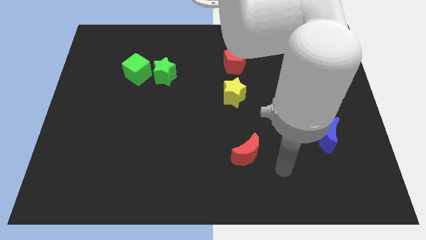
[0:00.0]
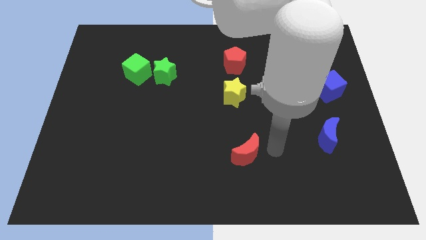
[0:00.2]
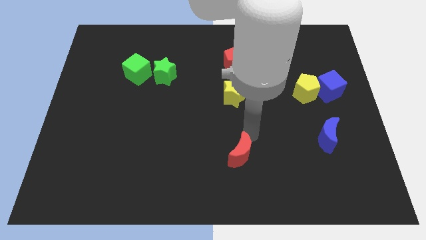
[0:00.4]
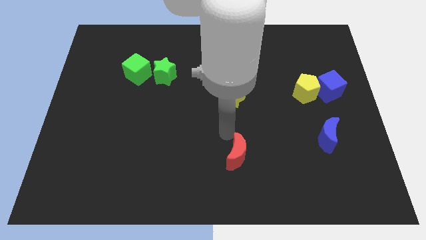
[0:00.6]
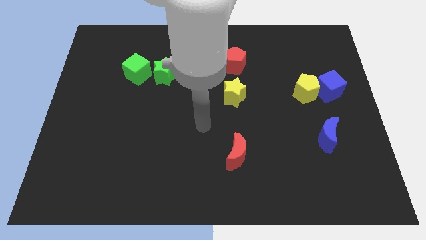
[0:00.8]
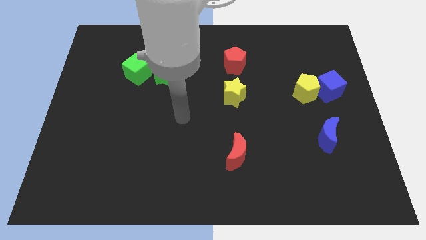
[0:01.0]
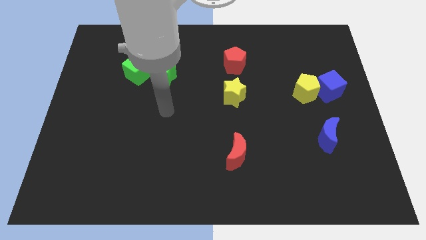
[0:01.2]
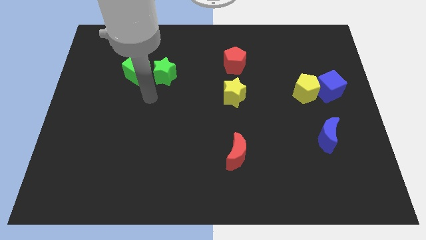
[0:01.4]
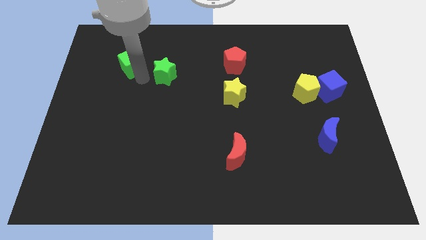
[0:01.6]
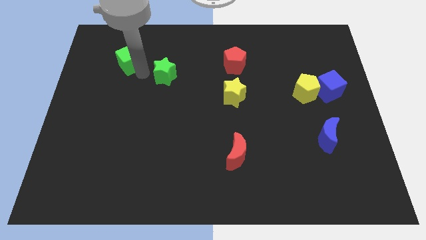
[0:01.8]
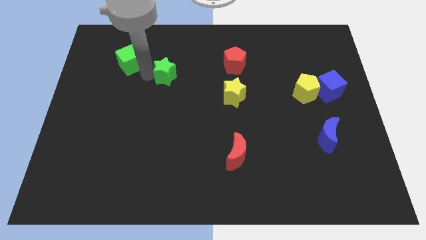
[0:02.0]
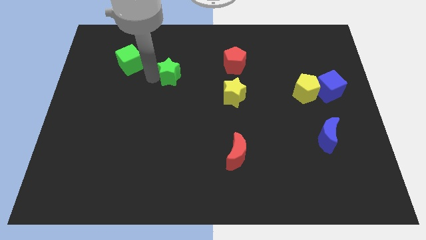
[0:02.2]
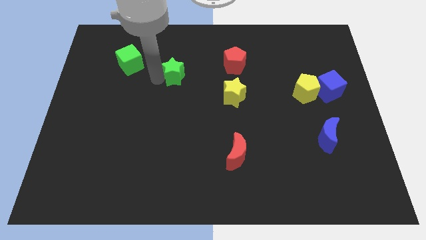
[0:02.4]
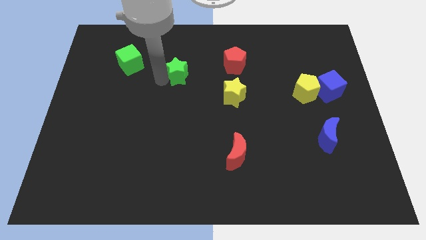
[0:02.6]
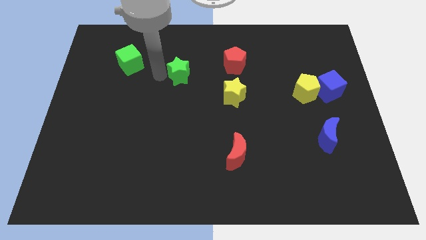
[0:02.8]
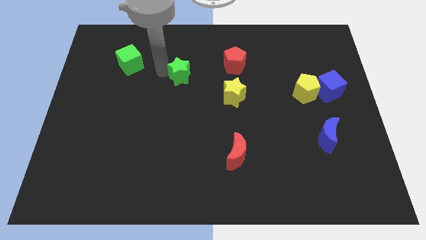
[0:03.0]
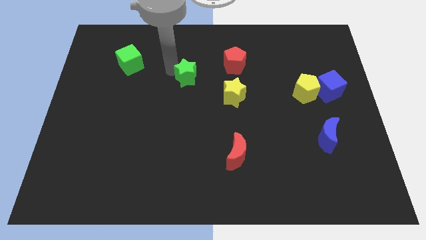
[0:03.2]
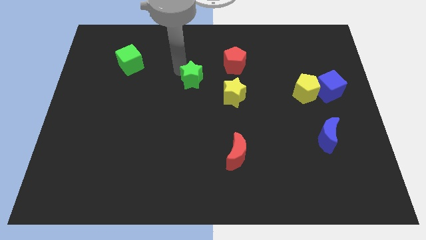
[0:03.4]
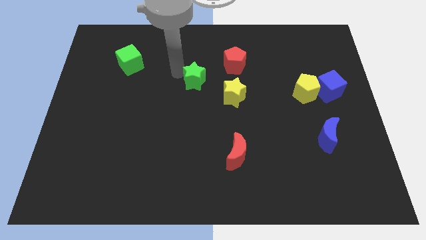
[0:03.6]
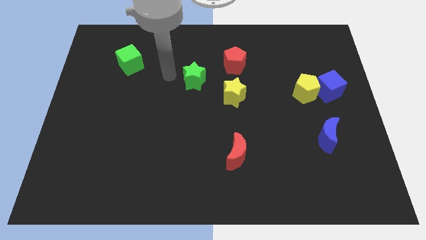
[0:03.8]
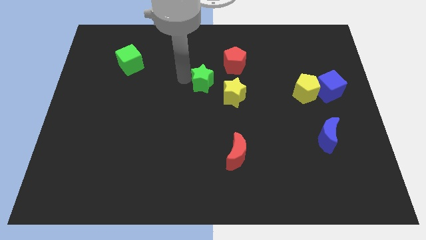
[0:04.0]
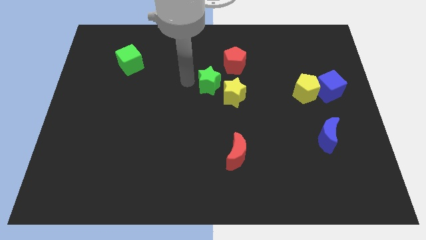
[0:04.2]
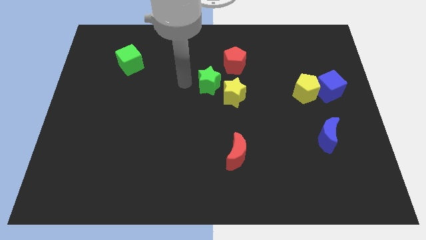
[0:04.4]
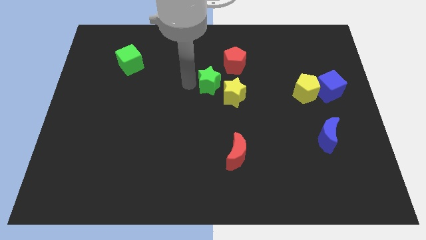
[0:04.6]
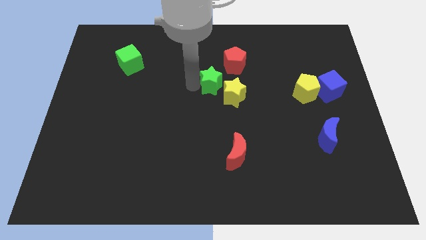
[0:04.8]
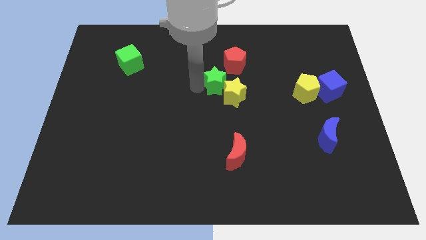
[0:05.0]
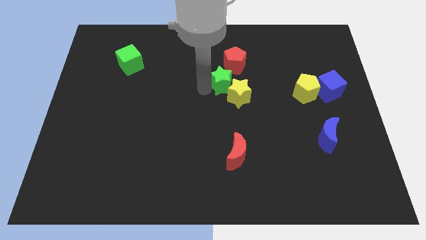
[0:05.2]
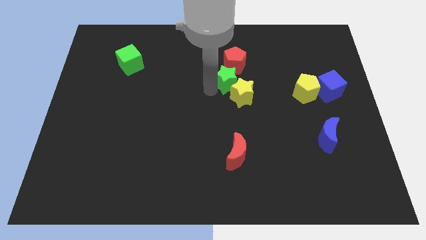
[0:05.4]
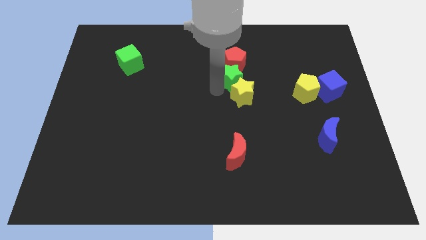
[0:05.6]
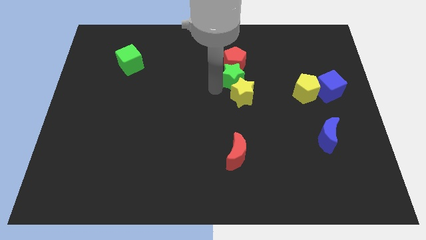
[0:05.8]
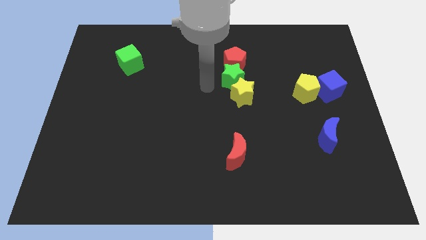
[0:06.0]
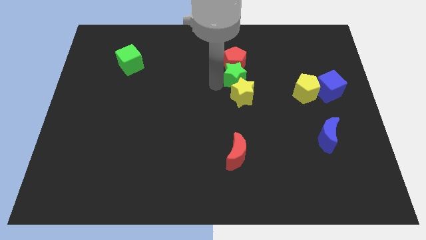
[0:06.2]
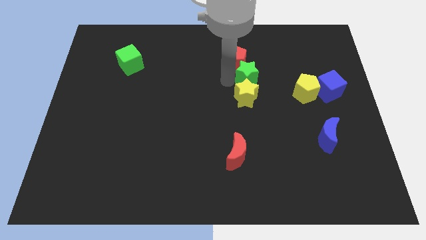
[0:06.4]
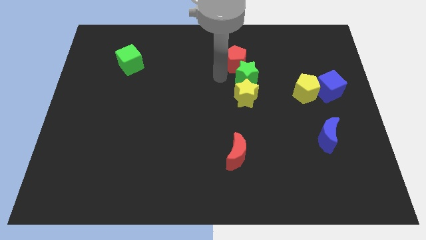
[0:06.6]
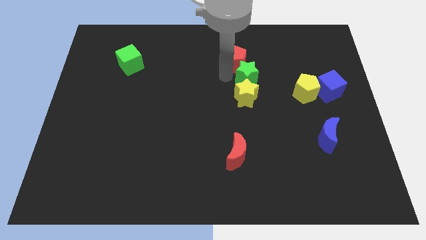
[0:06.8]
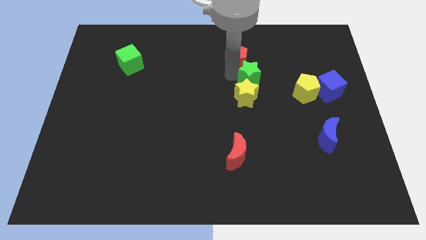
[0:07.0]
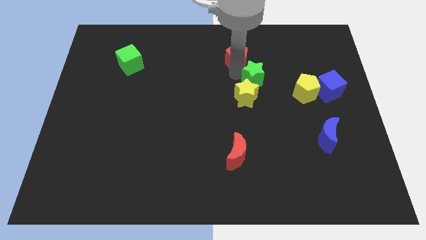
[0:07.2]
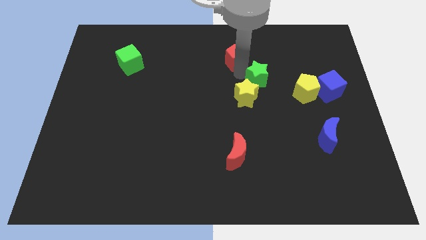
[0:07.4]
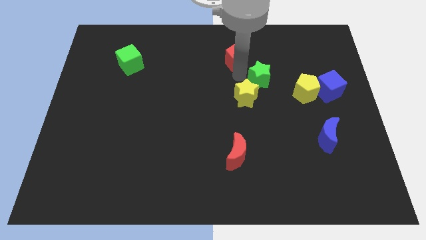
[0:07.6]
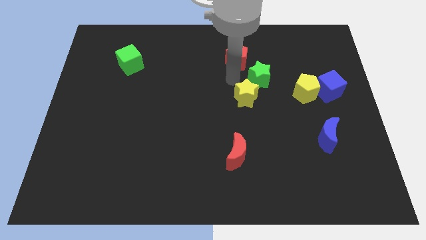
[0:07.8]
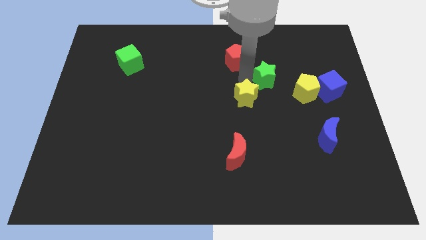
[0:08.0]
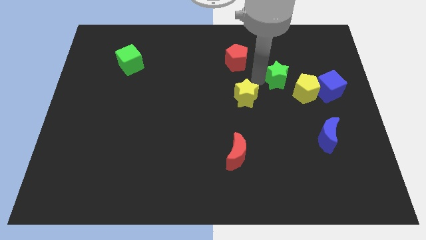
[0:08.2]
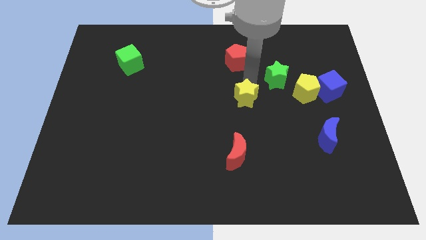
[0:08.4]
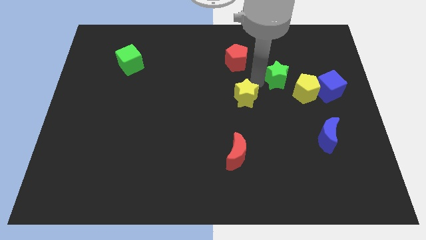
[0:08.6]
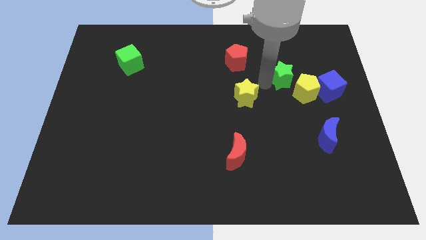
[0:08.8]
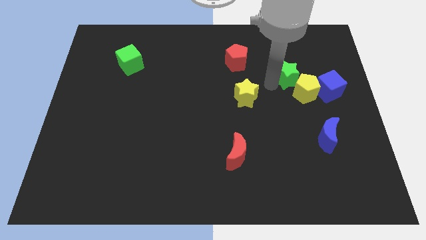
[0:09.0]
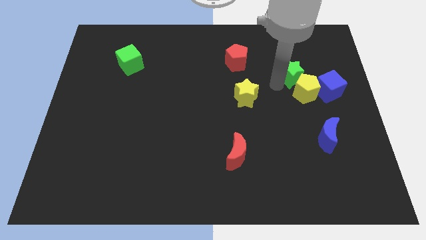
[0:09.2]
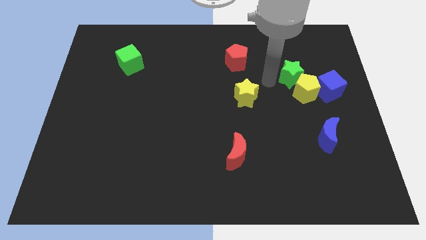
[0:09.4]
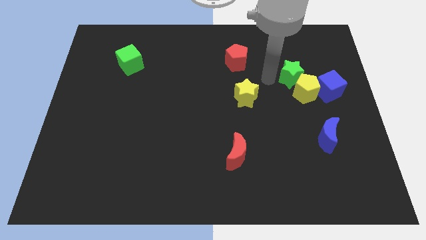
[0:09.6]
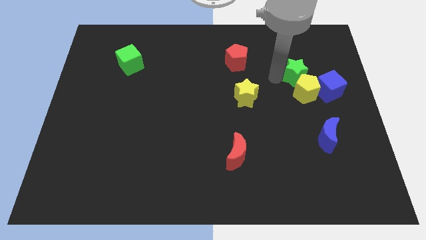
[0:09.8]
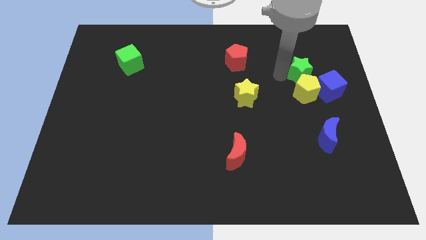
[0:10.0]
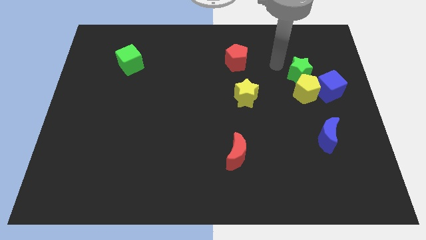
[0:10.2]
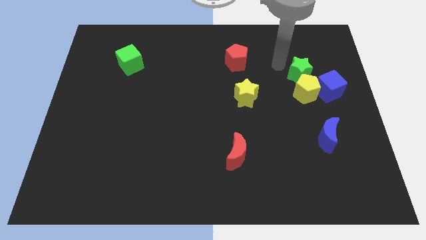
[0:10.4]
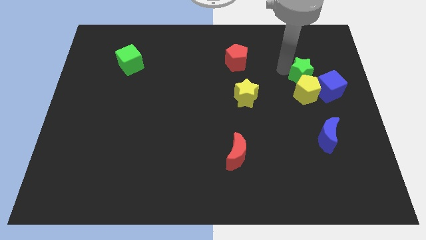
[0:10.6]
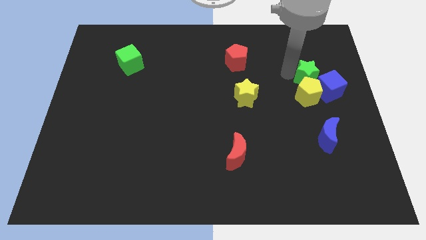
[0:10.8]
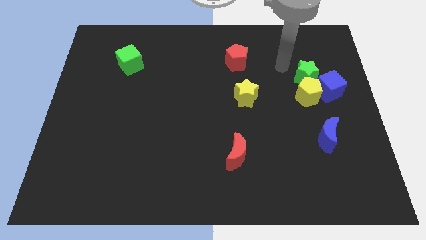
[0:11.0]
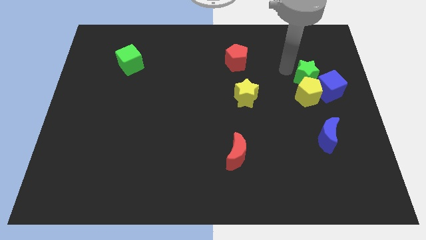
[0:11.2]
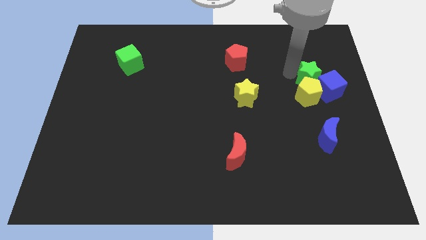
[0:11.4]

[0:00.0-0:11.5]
put the green star towards the blue cube
